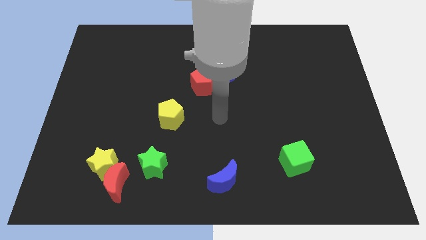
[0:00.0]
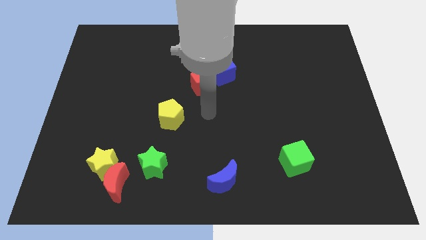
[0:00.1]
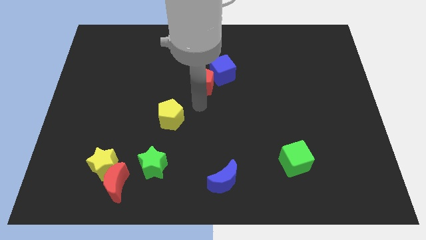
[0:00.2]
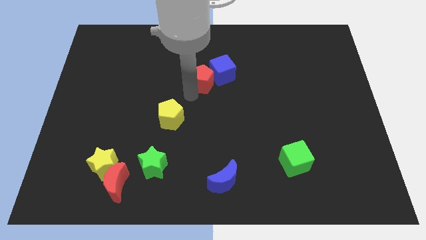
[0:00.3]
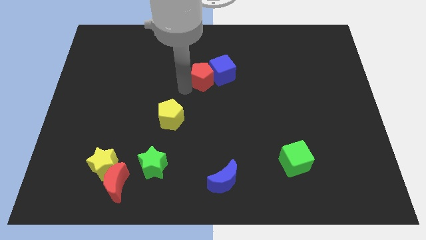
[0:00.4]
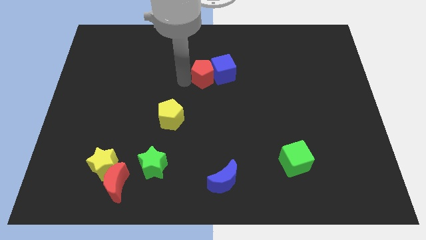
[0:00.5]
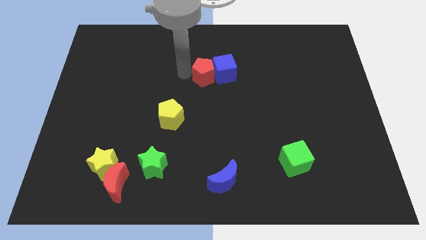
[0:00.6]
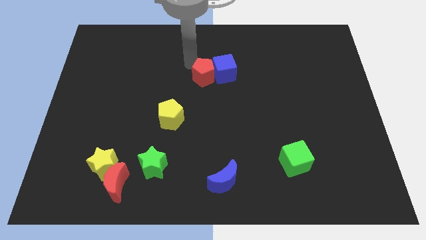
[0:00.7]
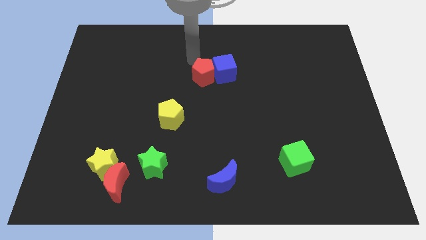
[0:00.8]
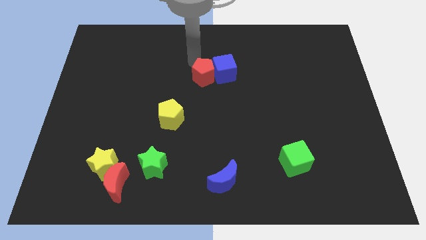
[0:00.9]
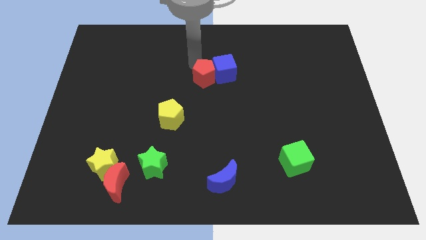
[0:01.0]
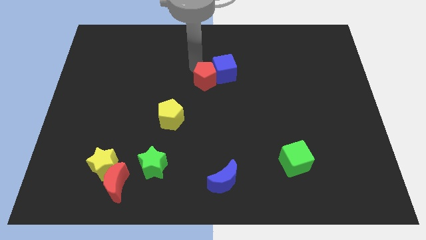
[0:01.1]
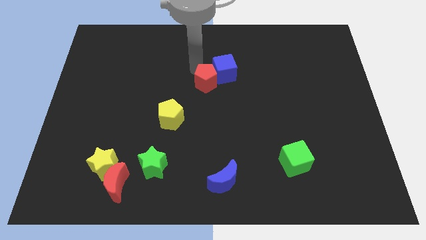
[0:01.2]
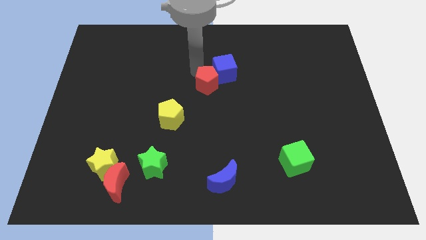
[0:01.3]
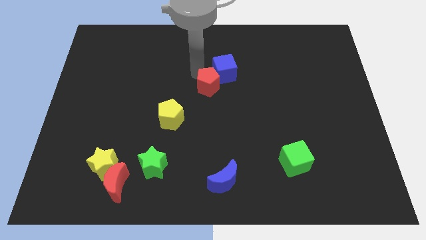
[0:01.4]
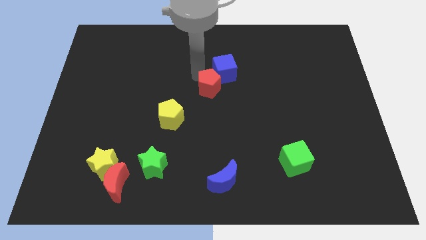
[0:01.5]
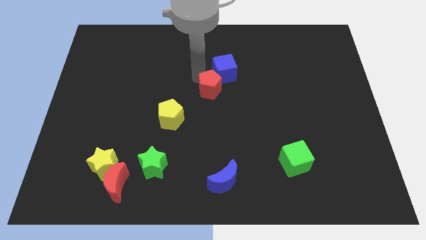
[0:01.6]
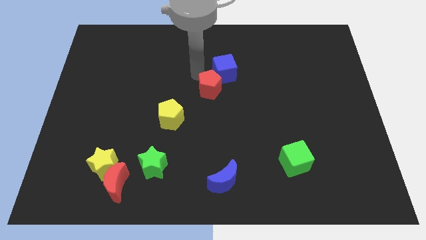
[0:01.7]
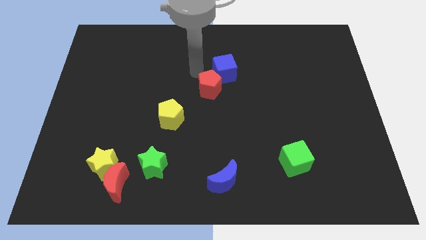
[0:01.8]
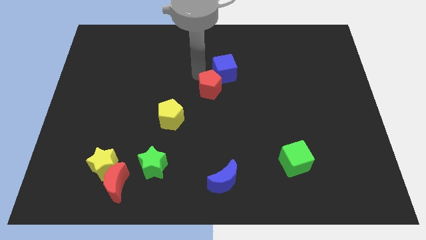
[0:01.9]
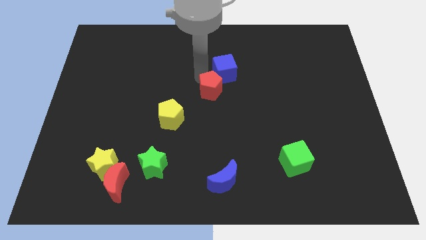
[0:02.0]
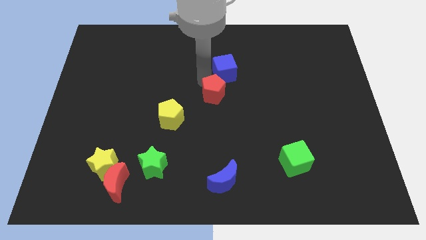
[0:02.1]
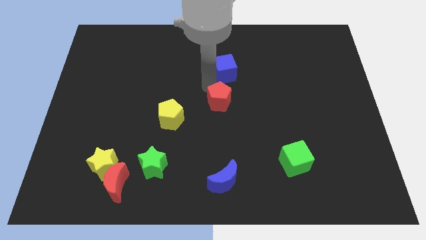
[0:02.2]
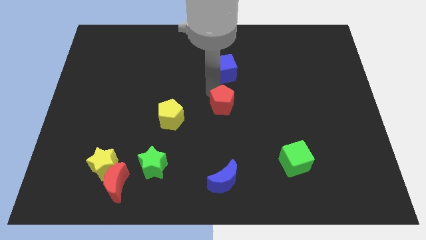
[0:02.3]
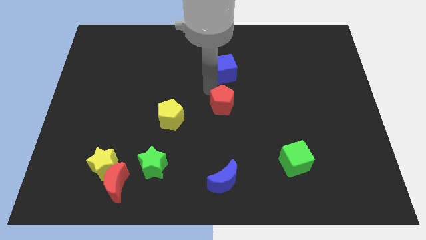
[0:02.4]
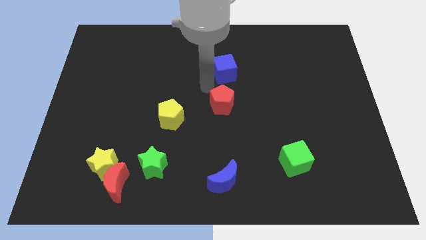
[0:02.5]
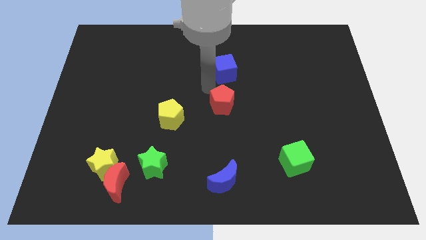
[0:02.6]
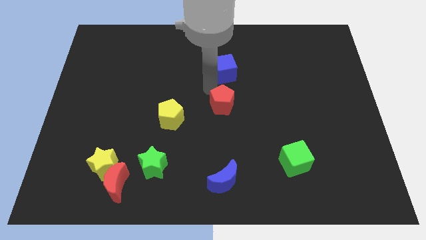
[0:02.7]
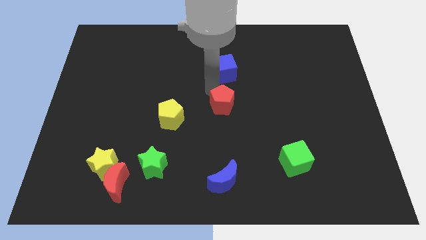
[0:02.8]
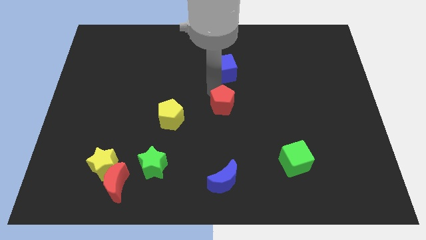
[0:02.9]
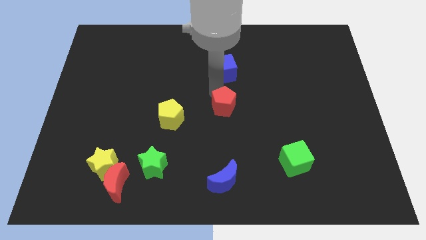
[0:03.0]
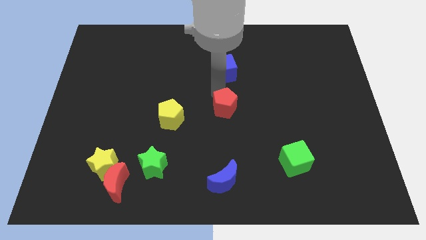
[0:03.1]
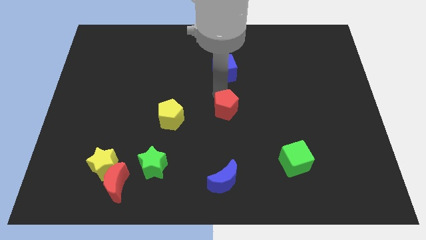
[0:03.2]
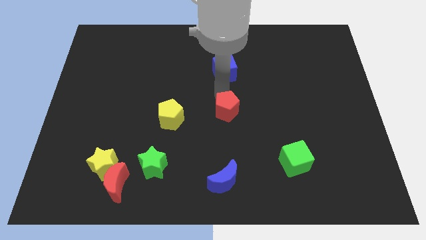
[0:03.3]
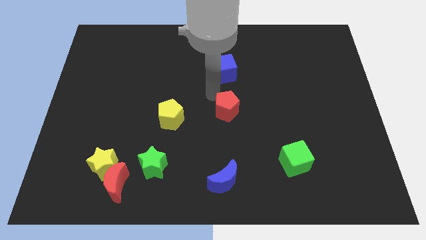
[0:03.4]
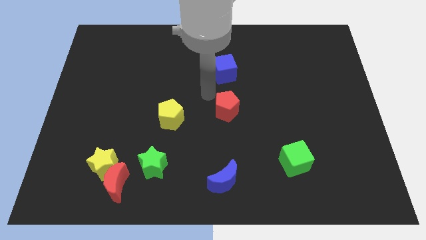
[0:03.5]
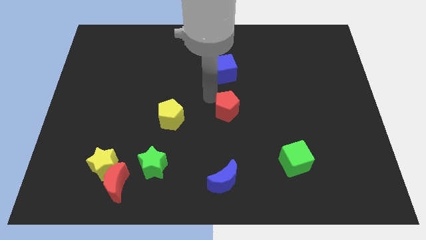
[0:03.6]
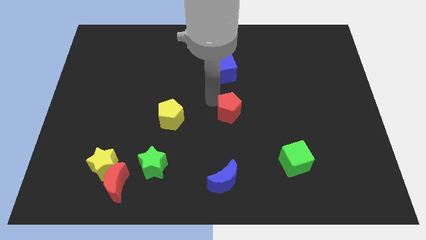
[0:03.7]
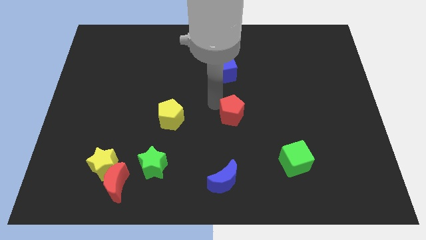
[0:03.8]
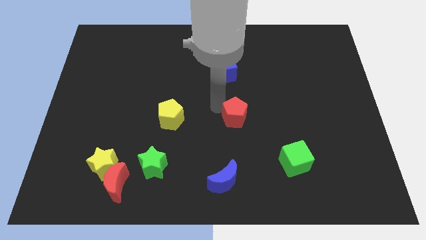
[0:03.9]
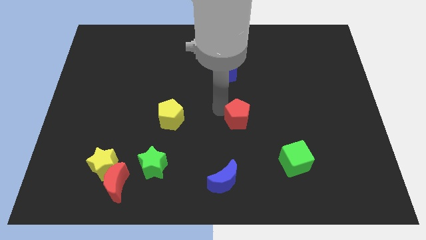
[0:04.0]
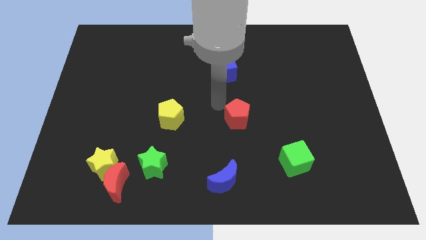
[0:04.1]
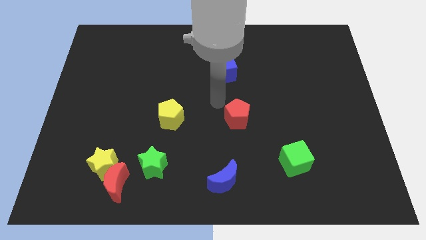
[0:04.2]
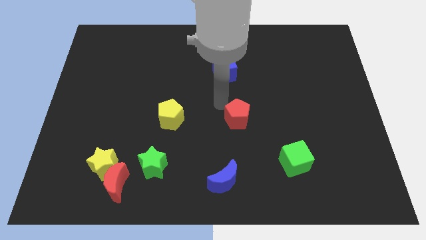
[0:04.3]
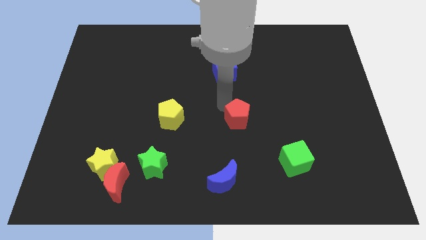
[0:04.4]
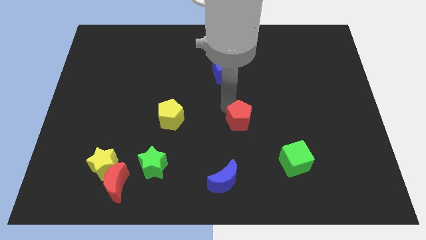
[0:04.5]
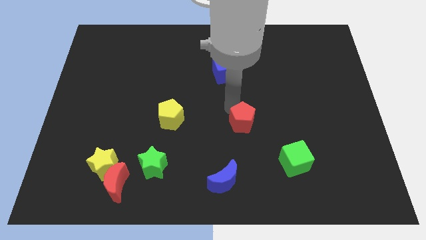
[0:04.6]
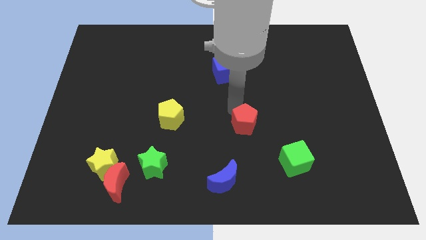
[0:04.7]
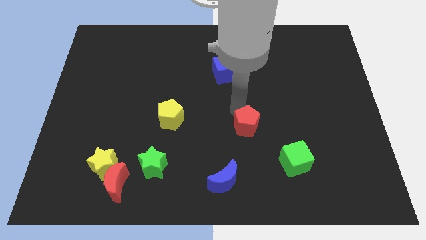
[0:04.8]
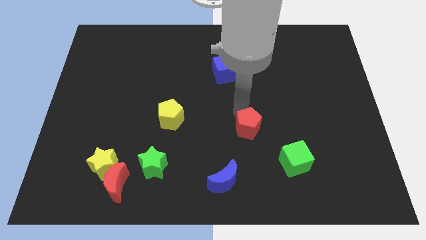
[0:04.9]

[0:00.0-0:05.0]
move the red pentagon to the top left side of the green cube

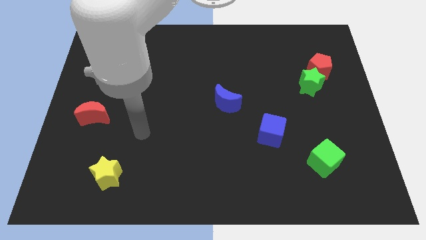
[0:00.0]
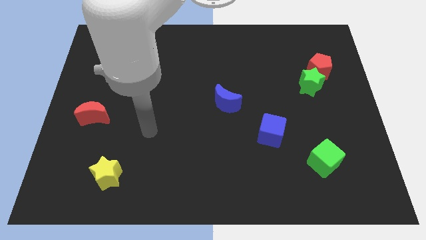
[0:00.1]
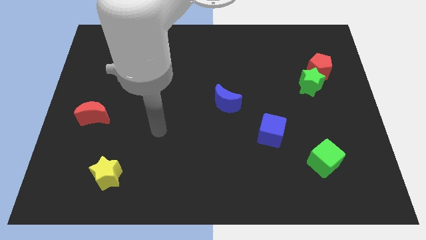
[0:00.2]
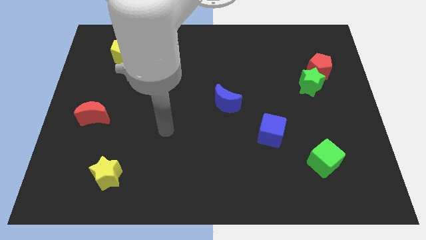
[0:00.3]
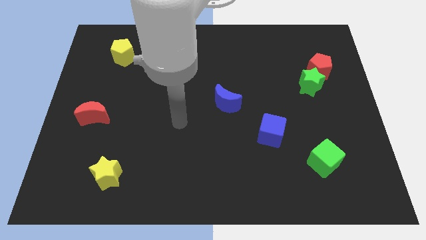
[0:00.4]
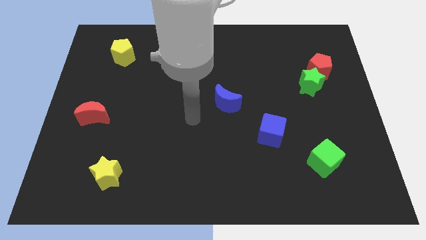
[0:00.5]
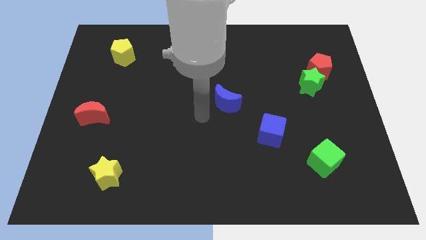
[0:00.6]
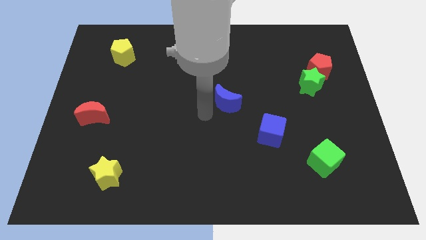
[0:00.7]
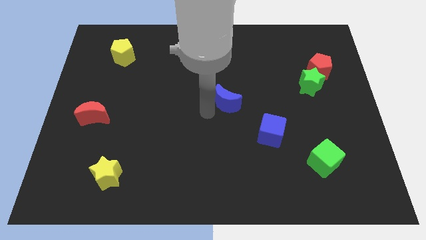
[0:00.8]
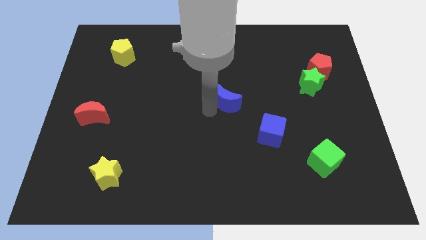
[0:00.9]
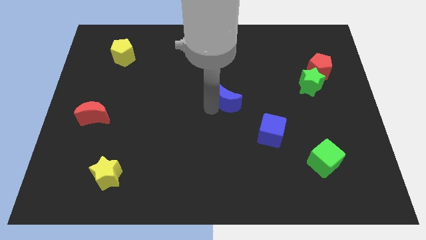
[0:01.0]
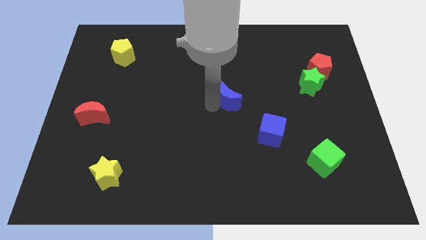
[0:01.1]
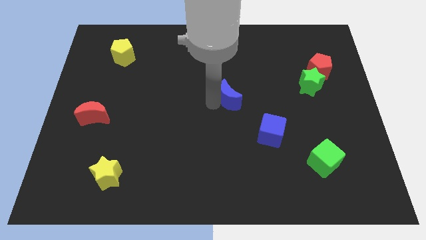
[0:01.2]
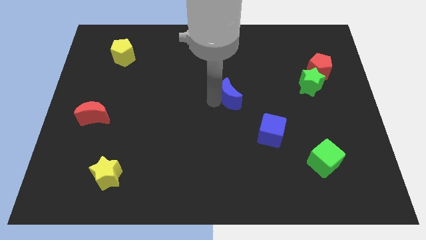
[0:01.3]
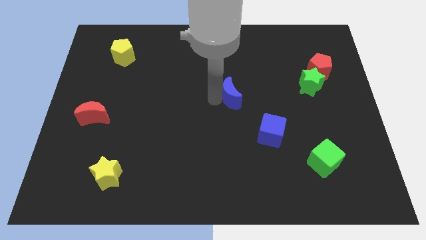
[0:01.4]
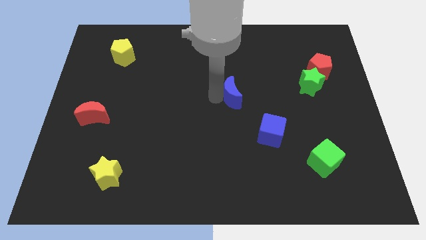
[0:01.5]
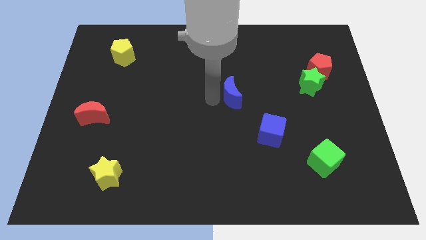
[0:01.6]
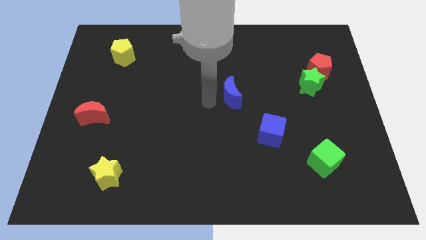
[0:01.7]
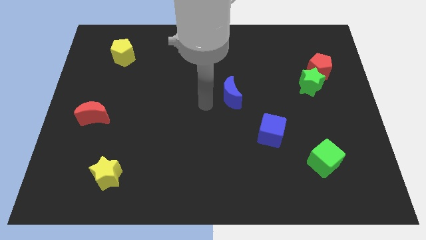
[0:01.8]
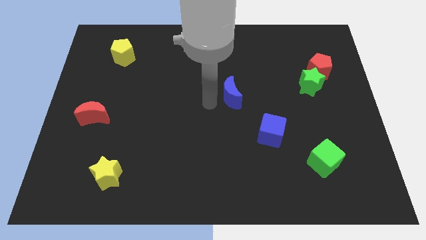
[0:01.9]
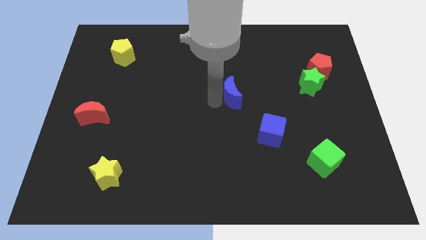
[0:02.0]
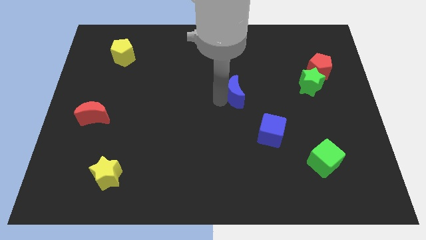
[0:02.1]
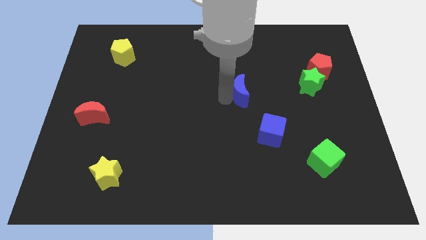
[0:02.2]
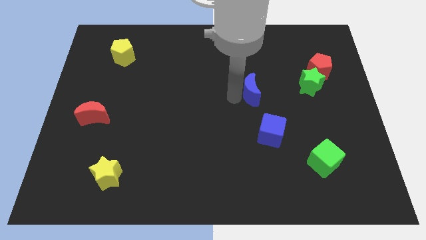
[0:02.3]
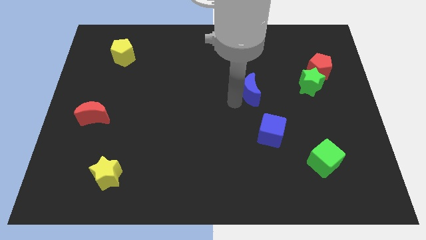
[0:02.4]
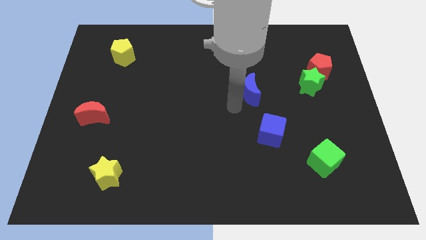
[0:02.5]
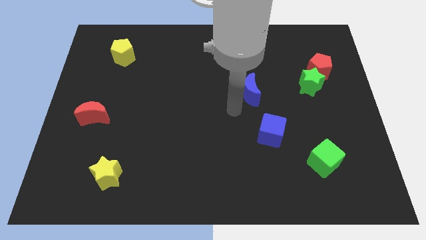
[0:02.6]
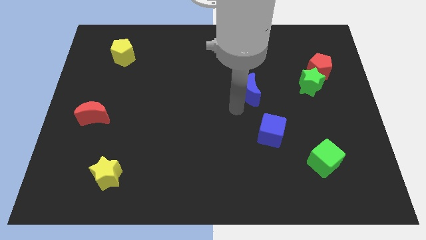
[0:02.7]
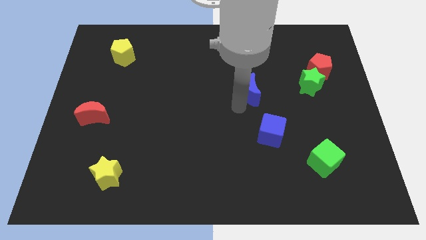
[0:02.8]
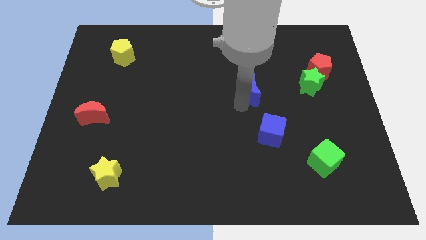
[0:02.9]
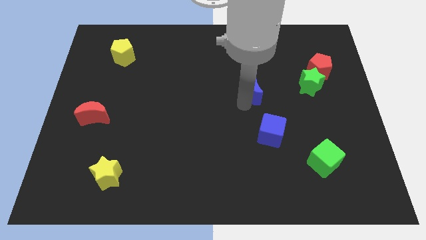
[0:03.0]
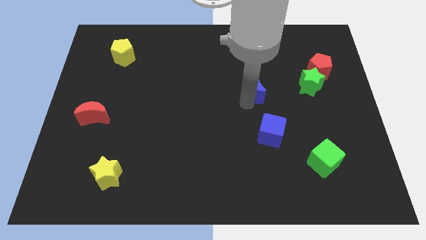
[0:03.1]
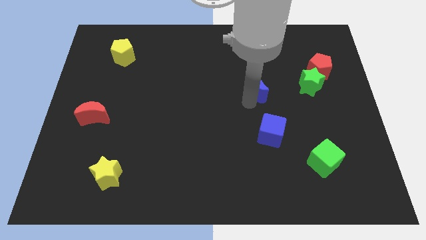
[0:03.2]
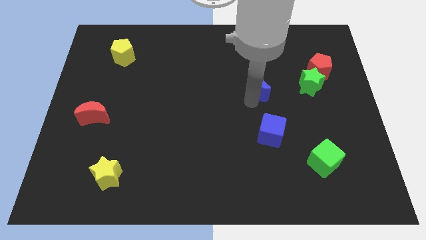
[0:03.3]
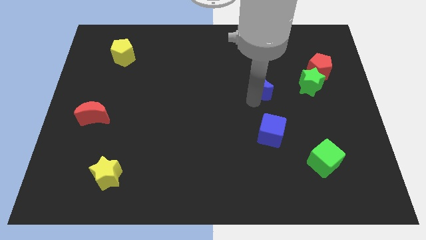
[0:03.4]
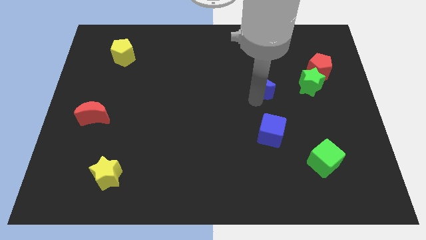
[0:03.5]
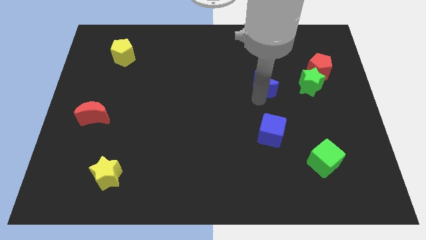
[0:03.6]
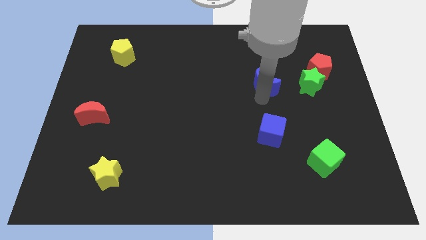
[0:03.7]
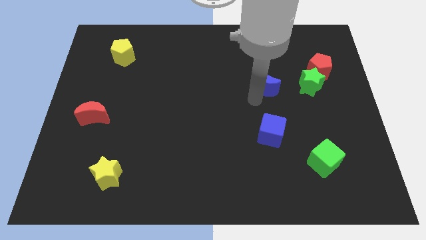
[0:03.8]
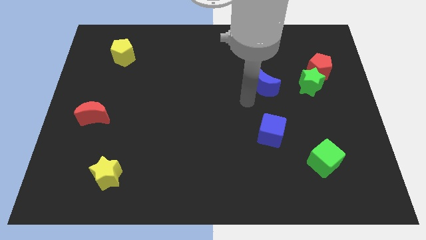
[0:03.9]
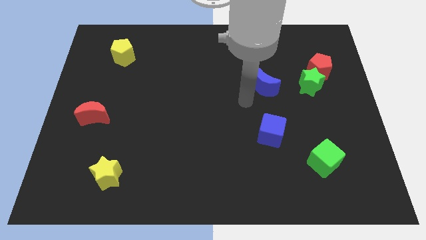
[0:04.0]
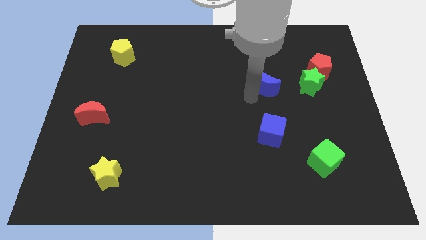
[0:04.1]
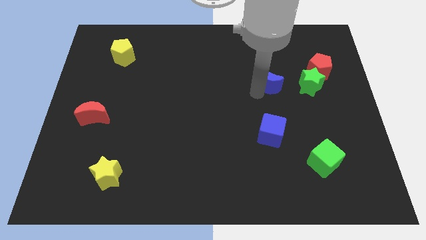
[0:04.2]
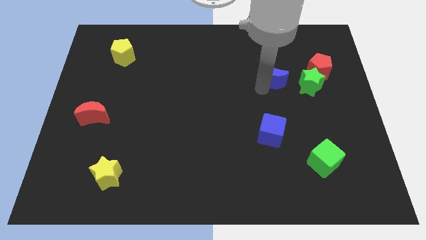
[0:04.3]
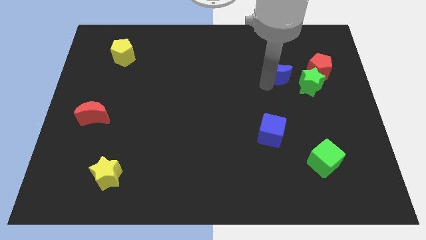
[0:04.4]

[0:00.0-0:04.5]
slide the blue moon diagonally up and to the left of the green star
